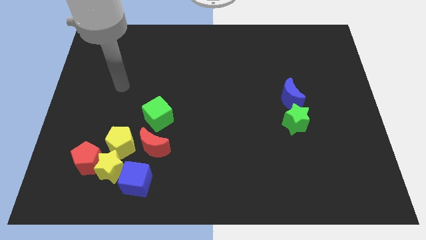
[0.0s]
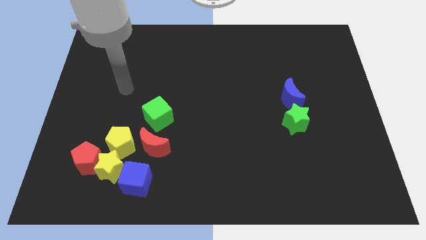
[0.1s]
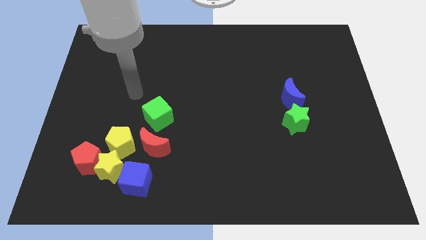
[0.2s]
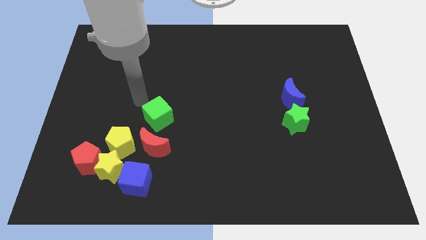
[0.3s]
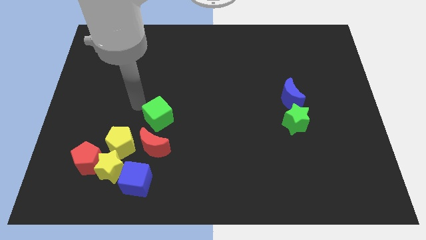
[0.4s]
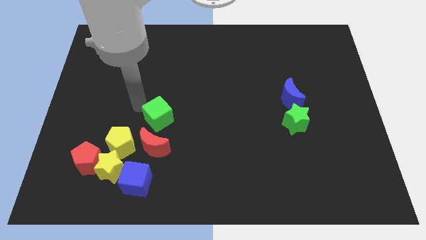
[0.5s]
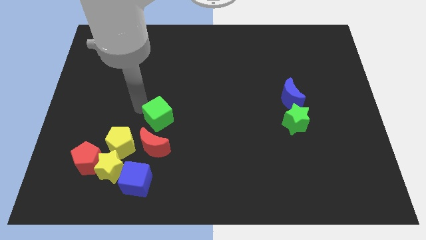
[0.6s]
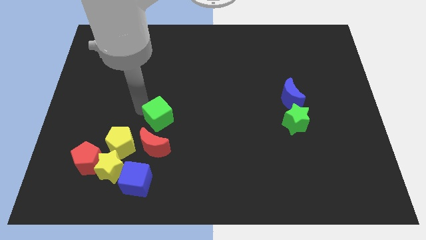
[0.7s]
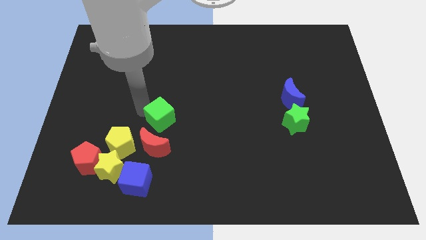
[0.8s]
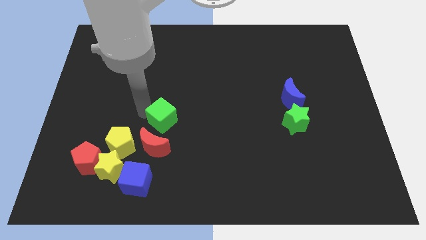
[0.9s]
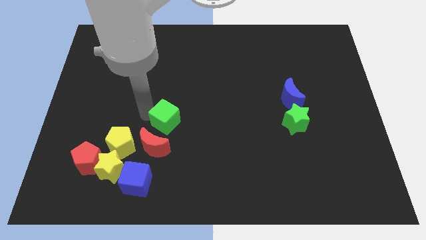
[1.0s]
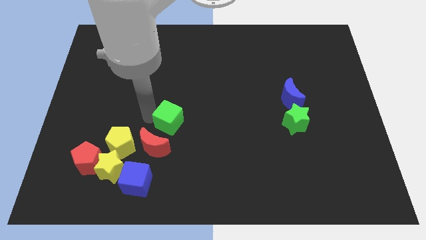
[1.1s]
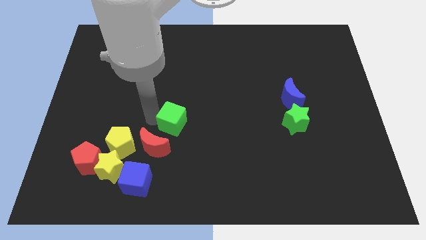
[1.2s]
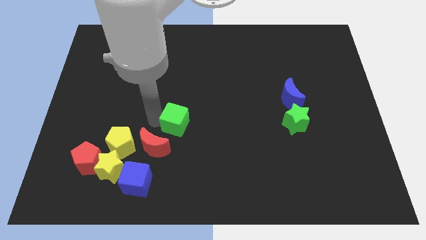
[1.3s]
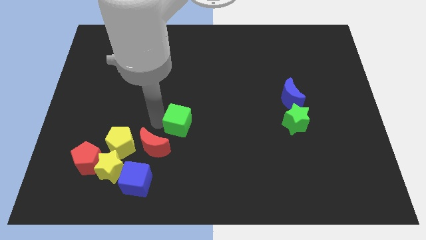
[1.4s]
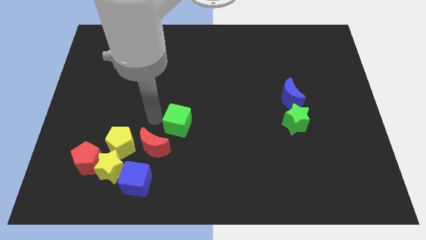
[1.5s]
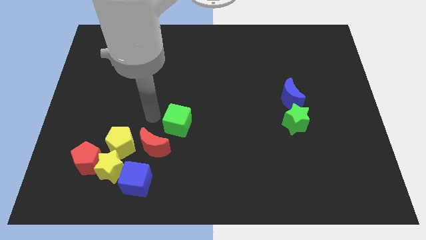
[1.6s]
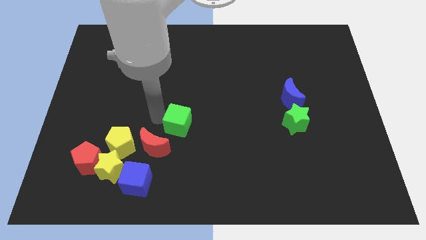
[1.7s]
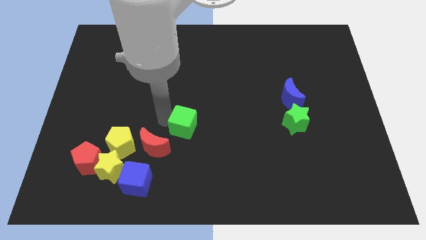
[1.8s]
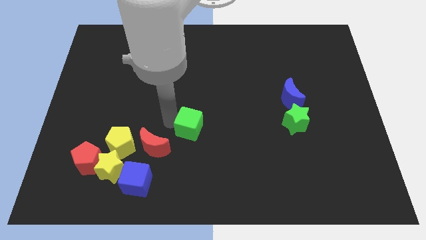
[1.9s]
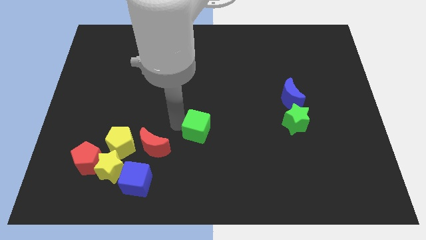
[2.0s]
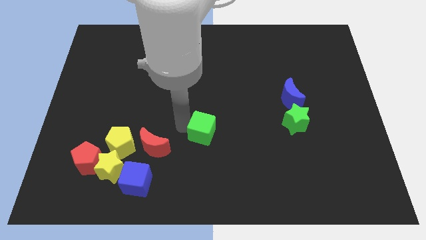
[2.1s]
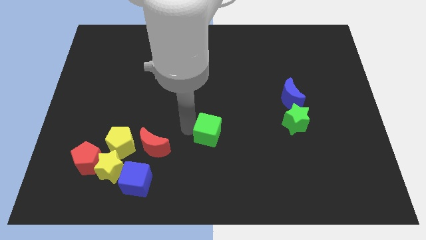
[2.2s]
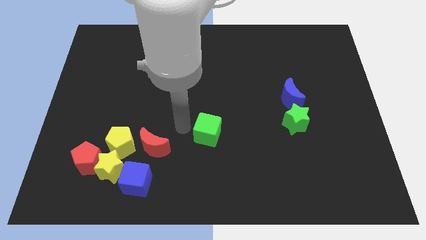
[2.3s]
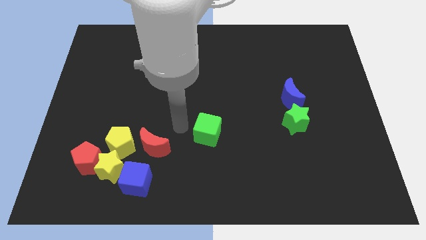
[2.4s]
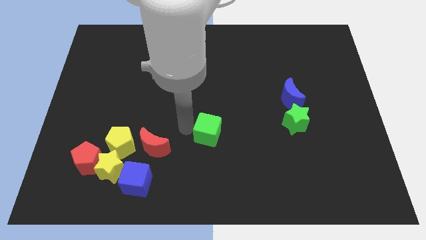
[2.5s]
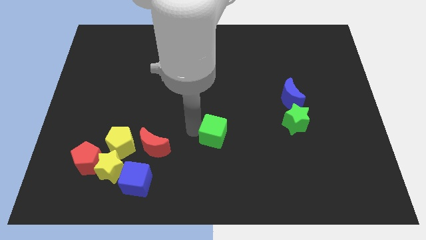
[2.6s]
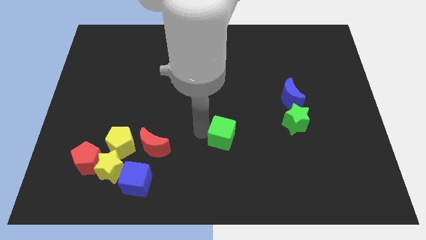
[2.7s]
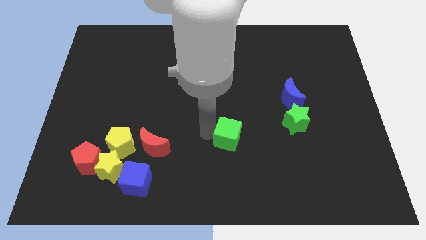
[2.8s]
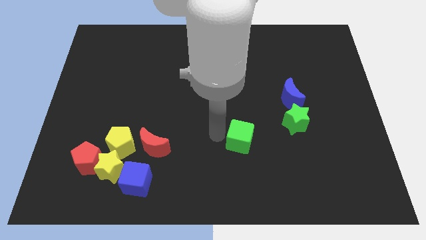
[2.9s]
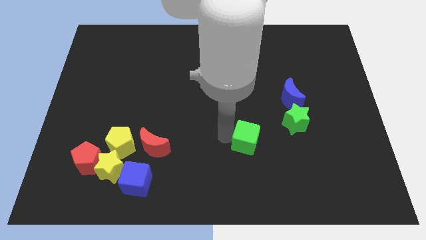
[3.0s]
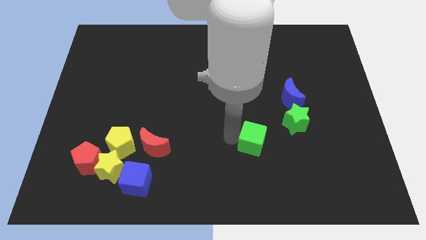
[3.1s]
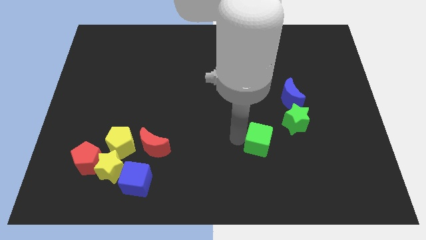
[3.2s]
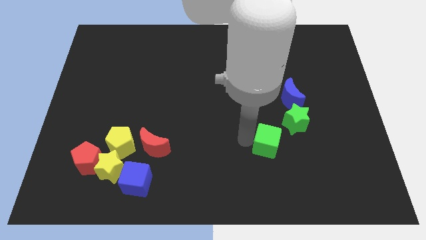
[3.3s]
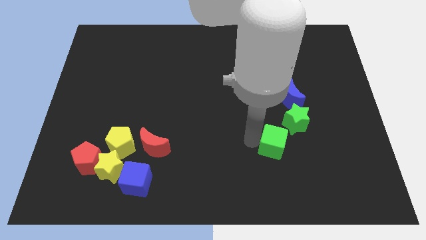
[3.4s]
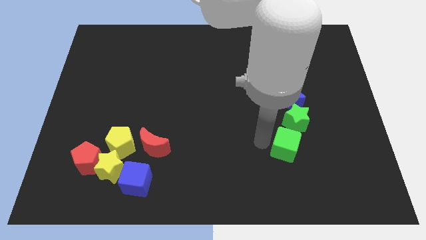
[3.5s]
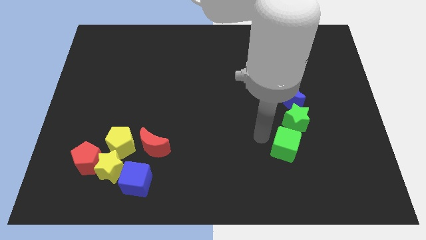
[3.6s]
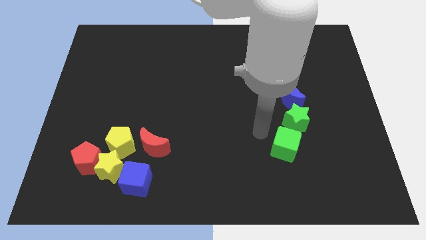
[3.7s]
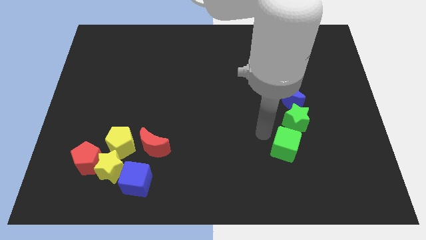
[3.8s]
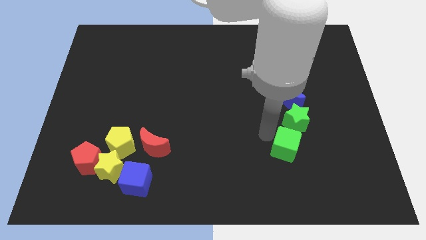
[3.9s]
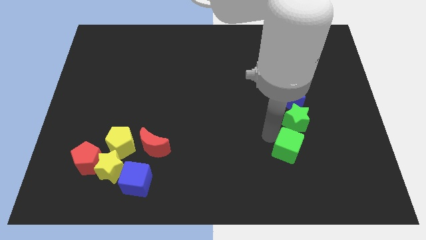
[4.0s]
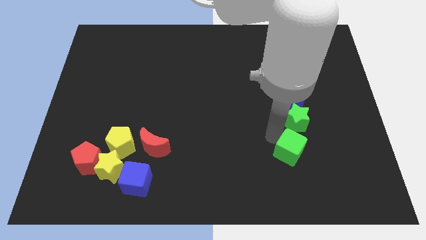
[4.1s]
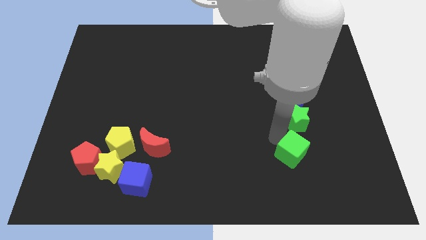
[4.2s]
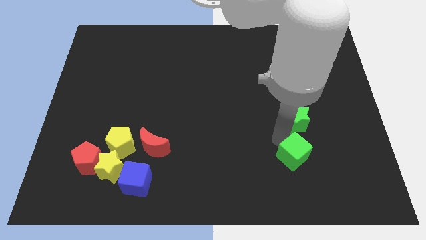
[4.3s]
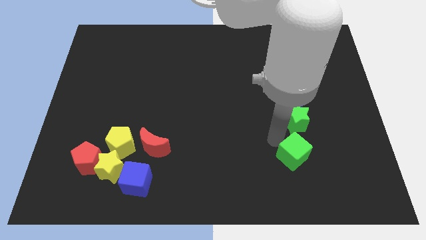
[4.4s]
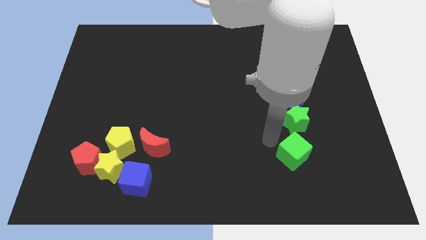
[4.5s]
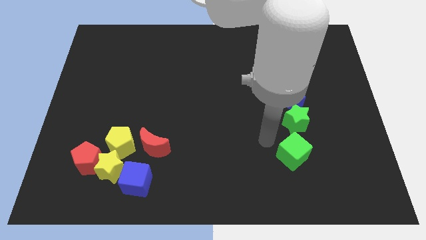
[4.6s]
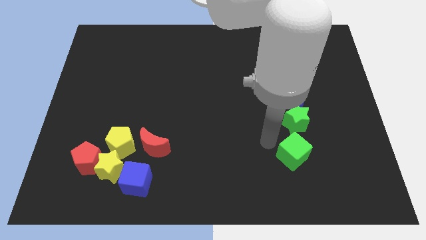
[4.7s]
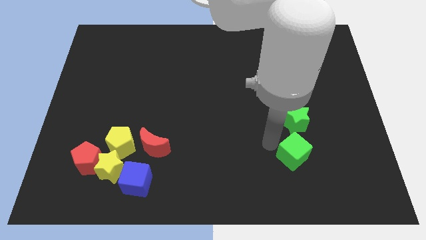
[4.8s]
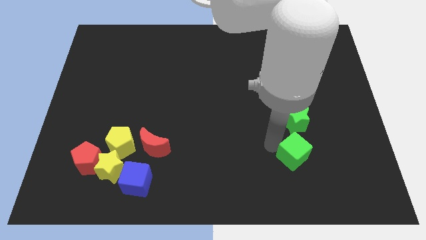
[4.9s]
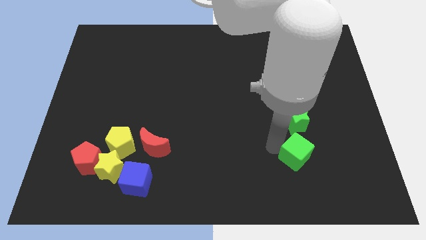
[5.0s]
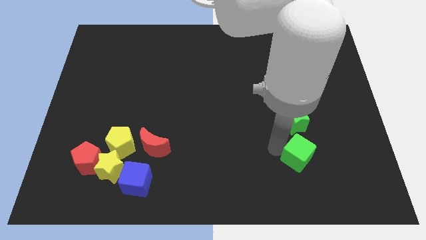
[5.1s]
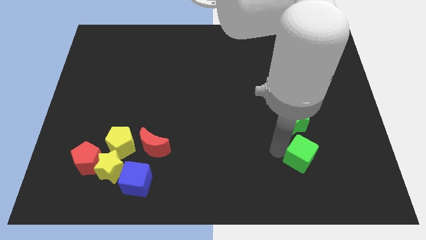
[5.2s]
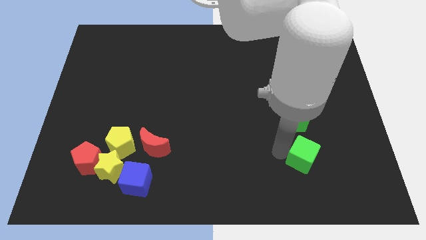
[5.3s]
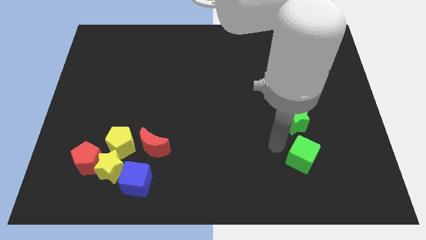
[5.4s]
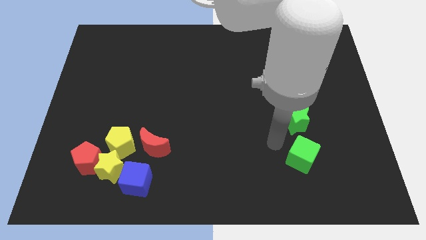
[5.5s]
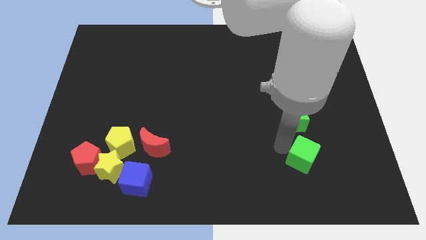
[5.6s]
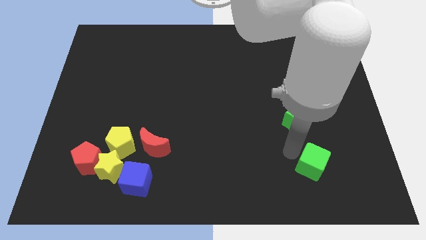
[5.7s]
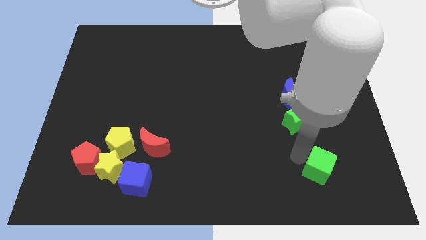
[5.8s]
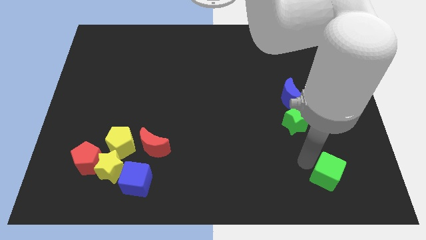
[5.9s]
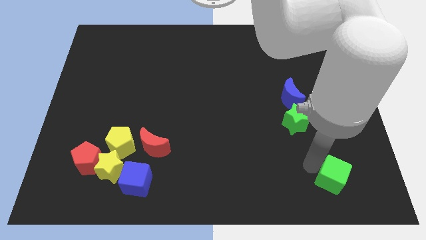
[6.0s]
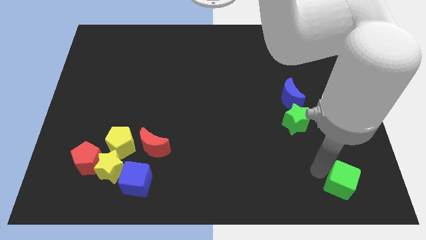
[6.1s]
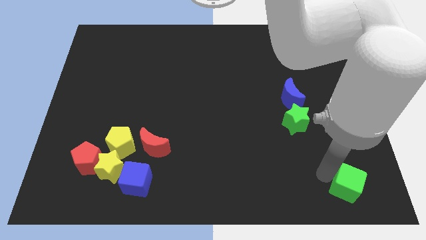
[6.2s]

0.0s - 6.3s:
move the green cube to the bottom right
